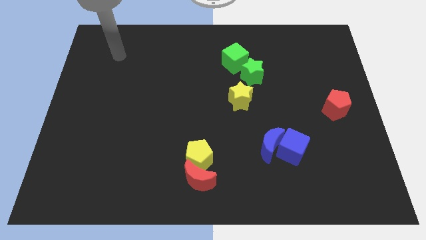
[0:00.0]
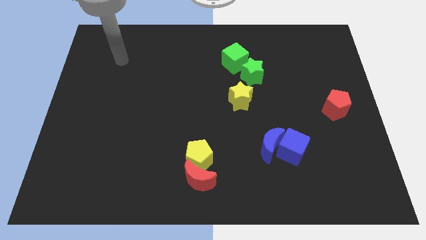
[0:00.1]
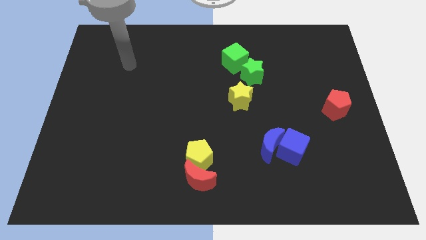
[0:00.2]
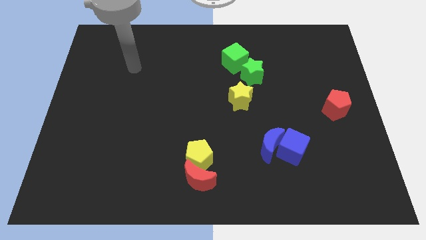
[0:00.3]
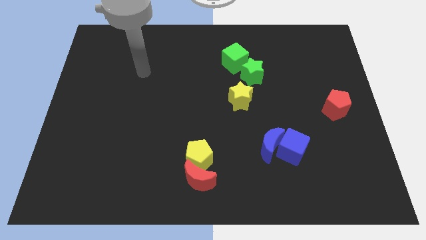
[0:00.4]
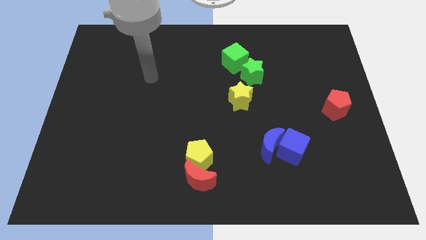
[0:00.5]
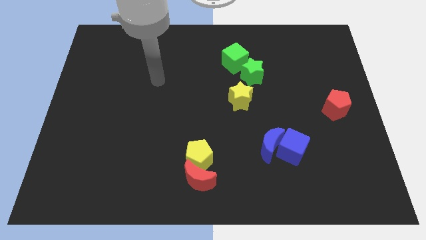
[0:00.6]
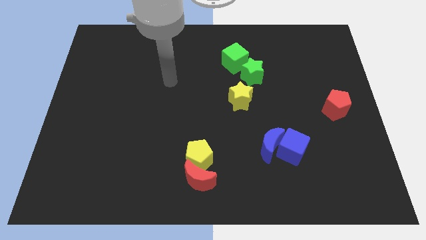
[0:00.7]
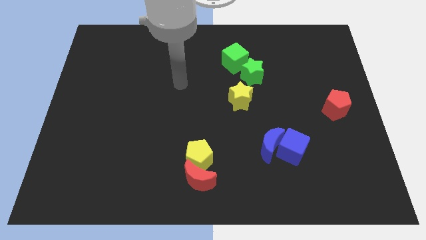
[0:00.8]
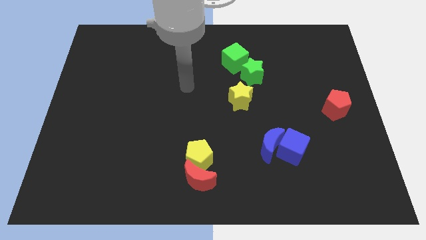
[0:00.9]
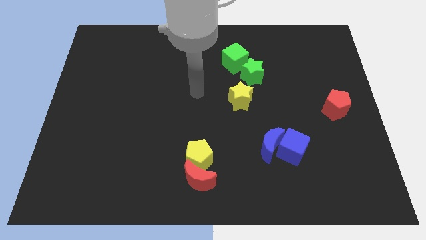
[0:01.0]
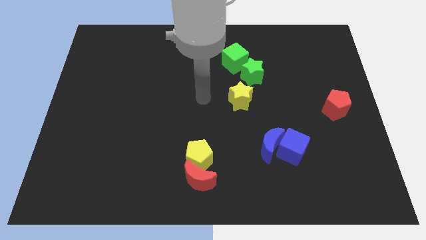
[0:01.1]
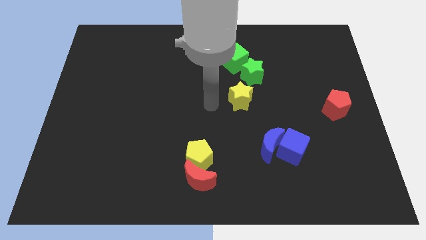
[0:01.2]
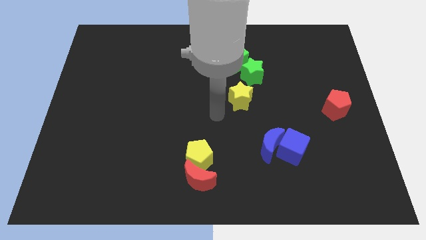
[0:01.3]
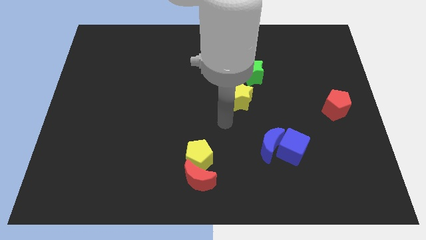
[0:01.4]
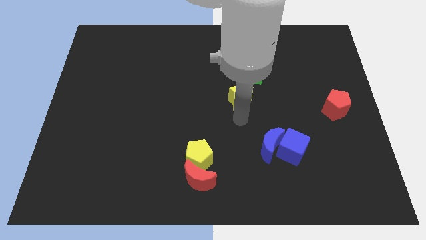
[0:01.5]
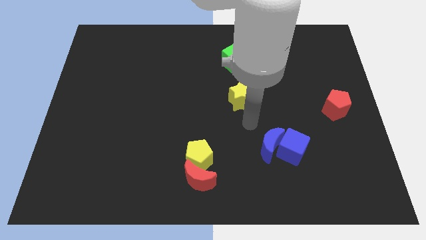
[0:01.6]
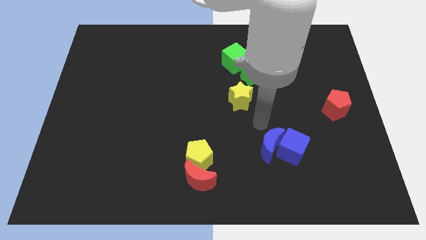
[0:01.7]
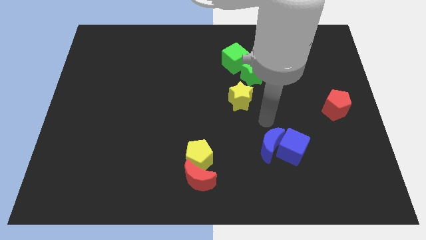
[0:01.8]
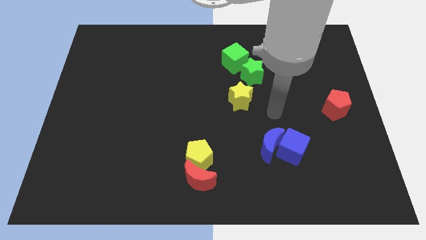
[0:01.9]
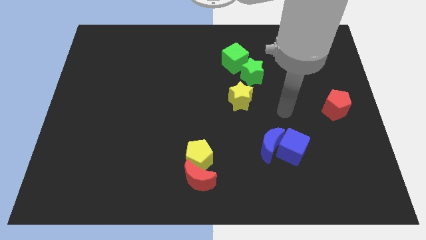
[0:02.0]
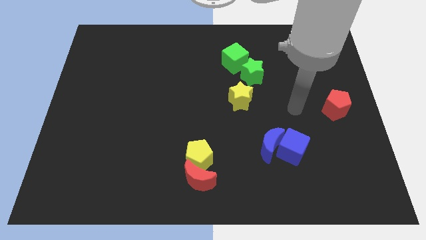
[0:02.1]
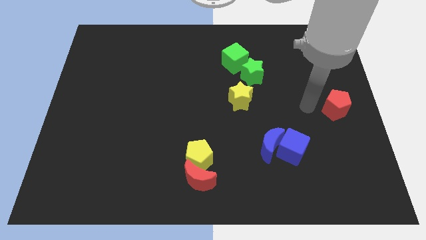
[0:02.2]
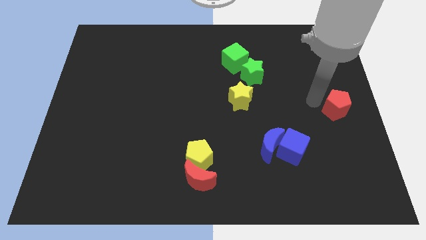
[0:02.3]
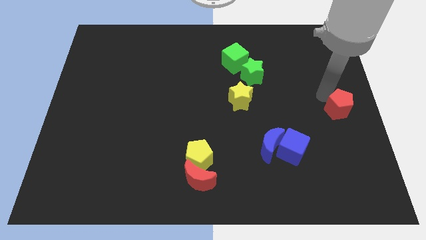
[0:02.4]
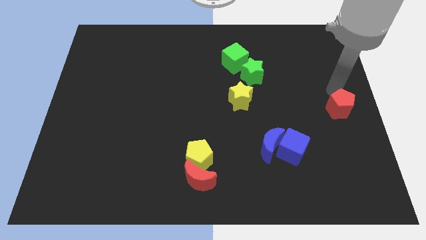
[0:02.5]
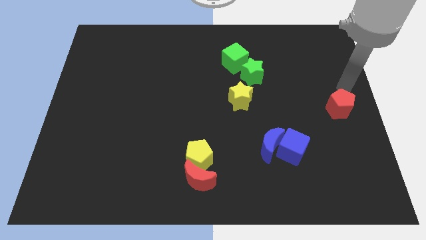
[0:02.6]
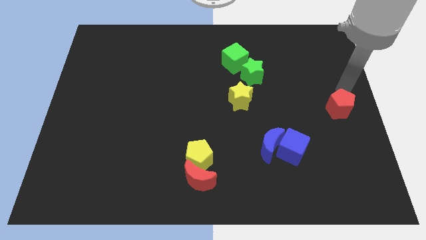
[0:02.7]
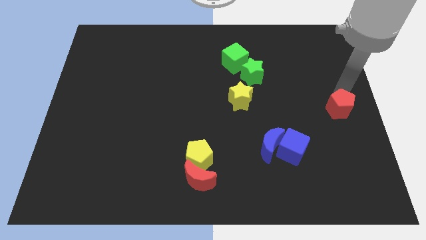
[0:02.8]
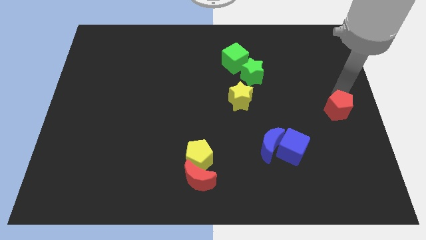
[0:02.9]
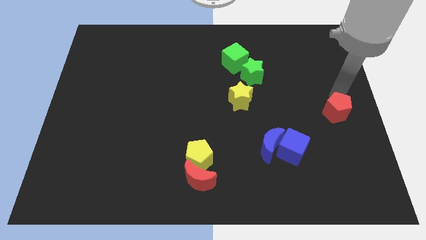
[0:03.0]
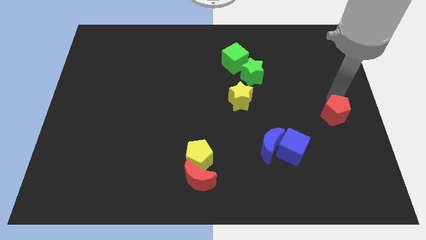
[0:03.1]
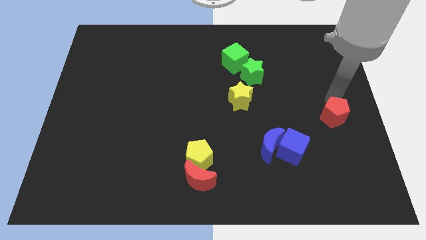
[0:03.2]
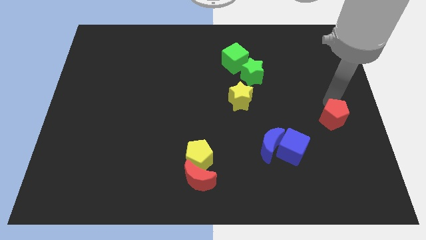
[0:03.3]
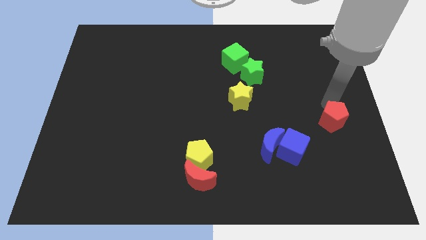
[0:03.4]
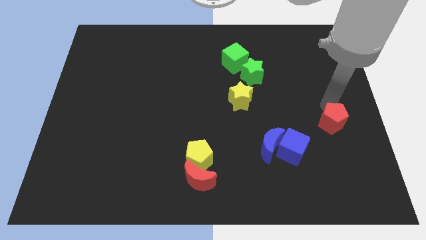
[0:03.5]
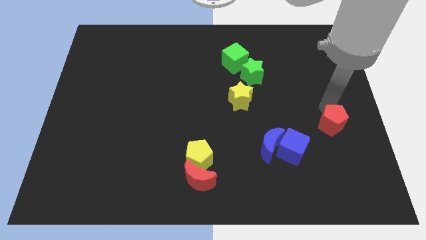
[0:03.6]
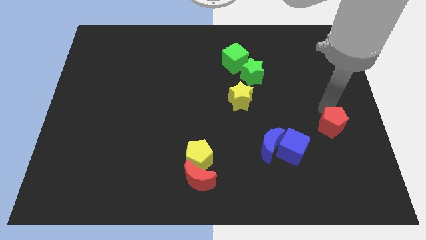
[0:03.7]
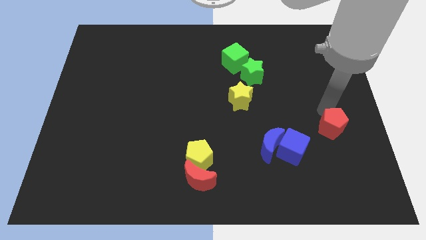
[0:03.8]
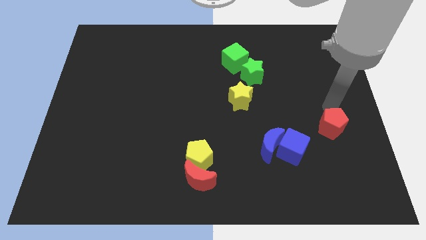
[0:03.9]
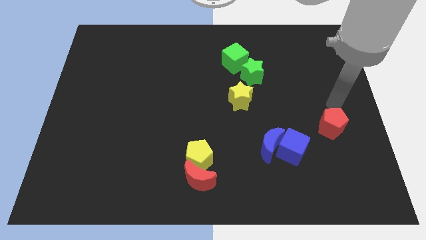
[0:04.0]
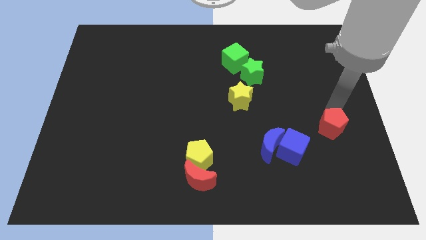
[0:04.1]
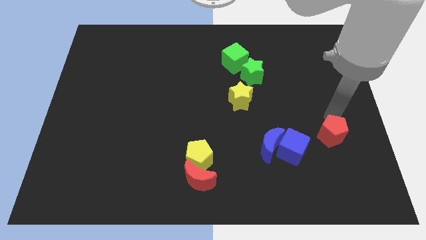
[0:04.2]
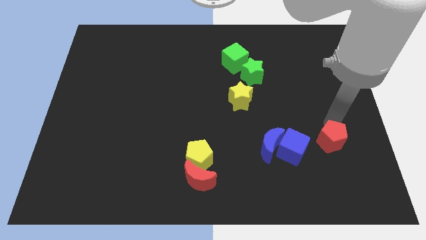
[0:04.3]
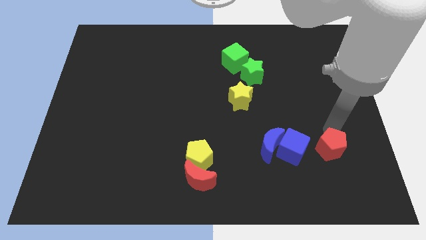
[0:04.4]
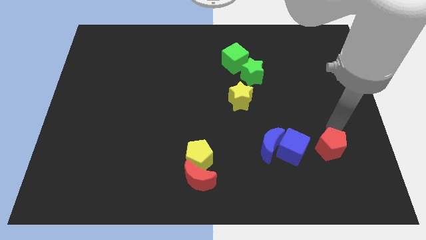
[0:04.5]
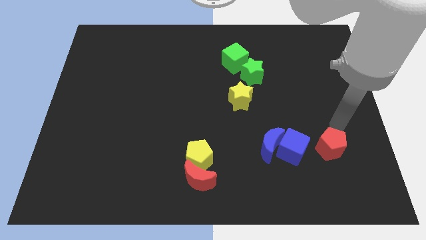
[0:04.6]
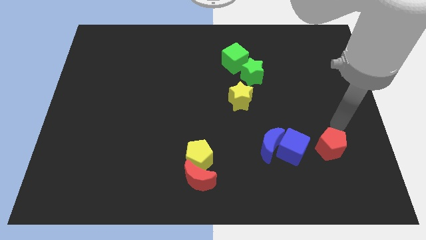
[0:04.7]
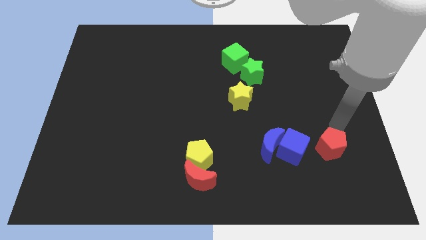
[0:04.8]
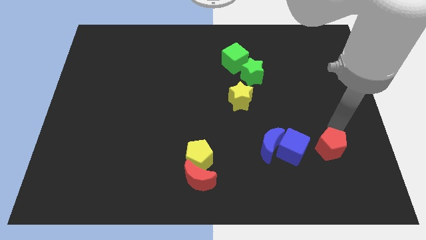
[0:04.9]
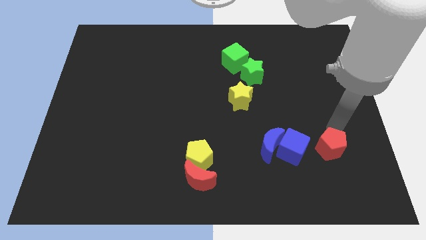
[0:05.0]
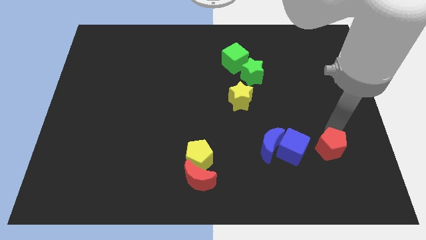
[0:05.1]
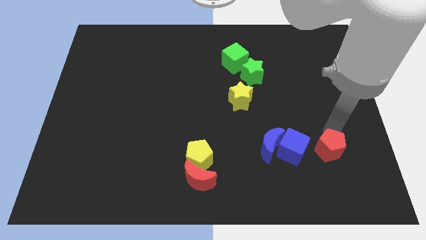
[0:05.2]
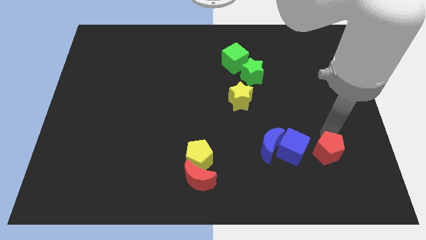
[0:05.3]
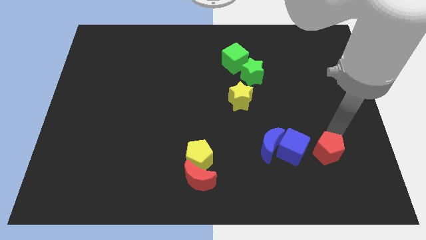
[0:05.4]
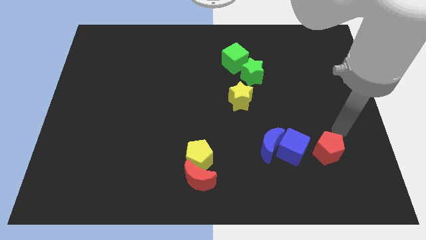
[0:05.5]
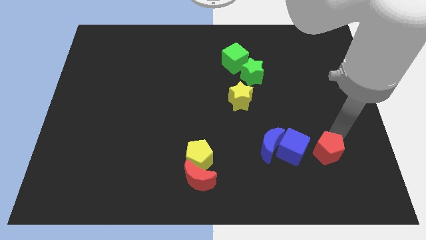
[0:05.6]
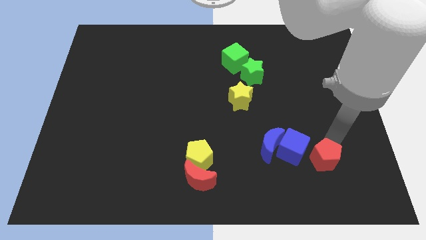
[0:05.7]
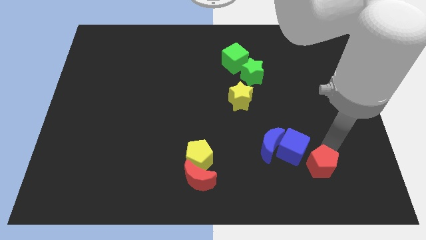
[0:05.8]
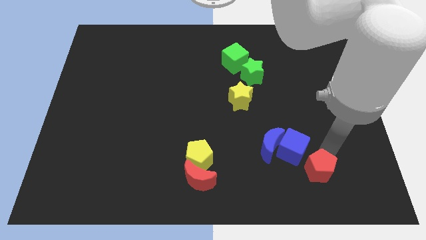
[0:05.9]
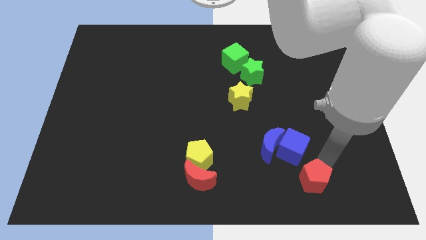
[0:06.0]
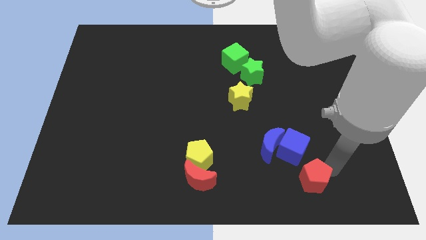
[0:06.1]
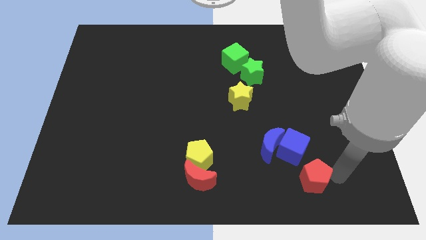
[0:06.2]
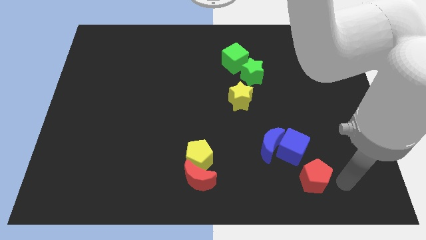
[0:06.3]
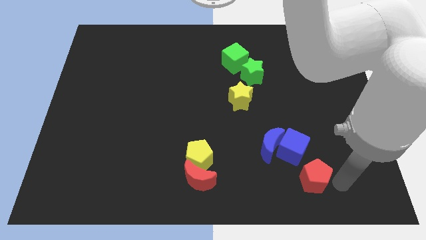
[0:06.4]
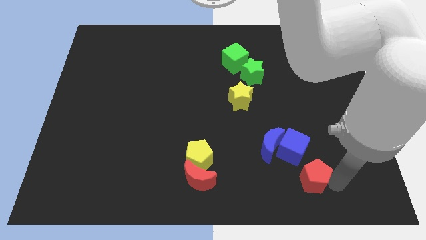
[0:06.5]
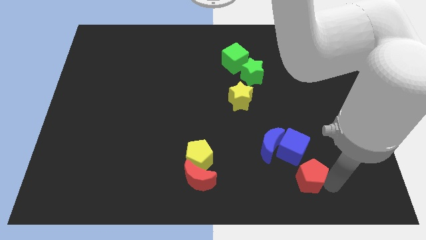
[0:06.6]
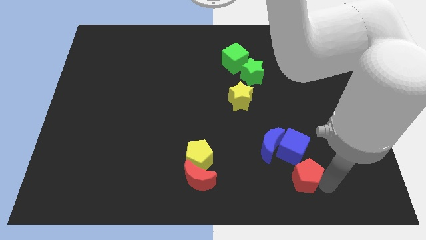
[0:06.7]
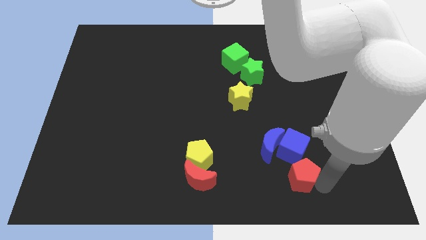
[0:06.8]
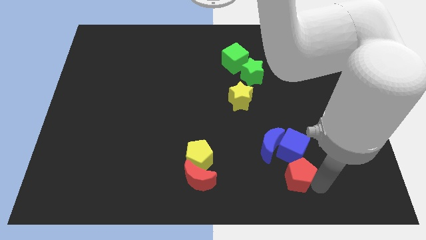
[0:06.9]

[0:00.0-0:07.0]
slide the red pentagon to the bottom left side of the blue cube
